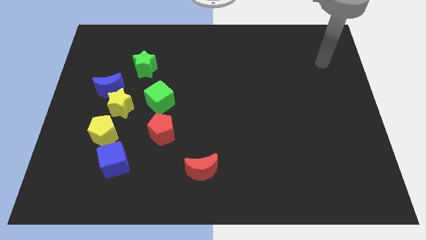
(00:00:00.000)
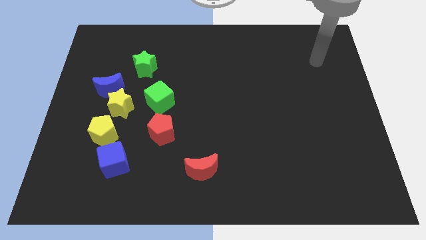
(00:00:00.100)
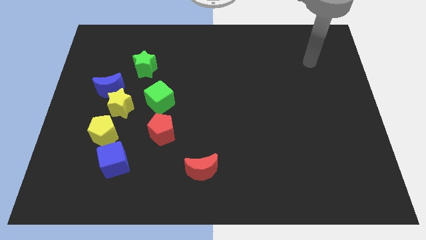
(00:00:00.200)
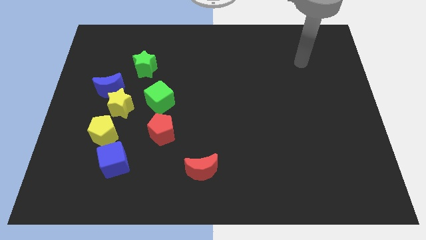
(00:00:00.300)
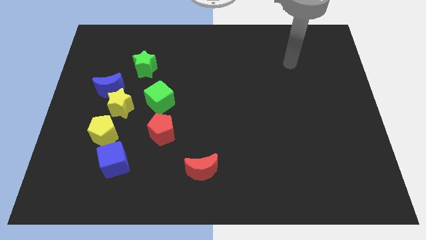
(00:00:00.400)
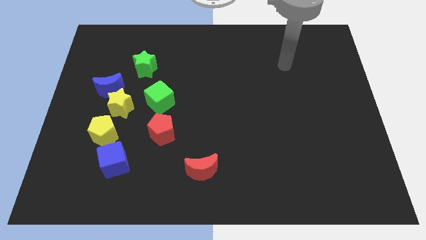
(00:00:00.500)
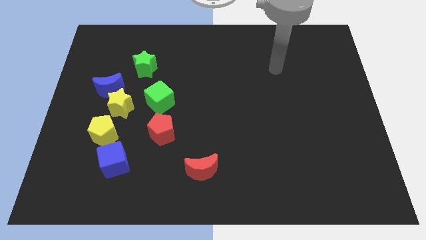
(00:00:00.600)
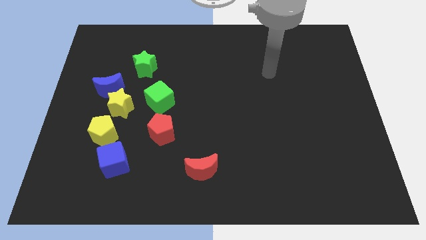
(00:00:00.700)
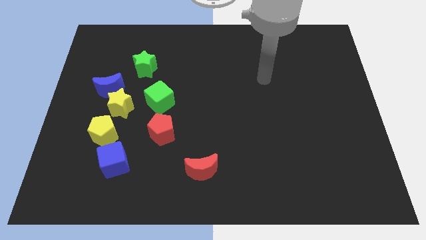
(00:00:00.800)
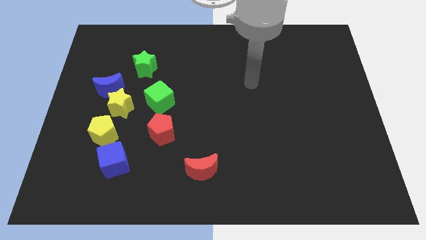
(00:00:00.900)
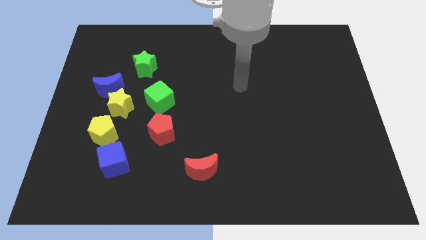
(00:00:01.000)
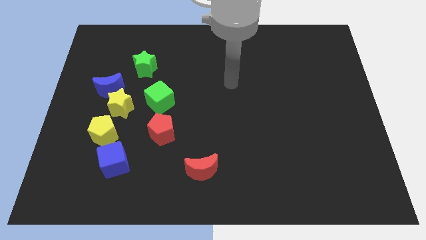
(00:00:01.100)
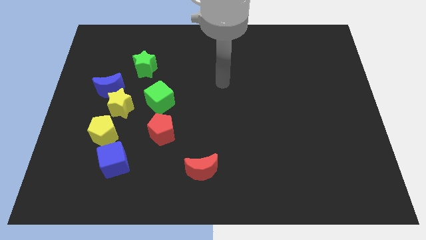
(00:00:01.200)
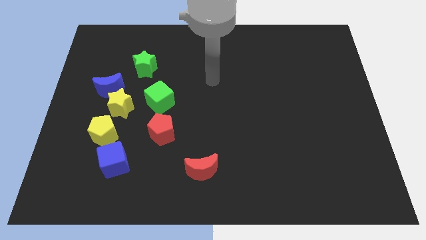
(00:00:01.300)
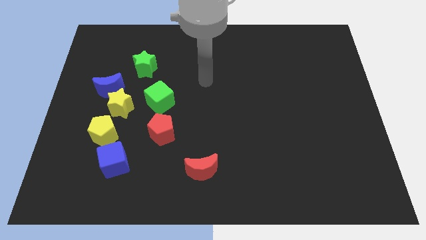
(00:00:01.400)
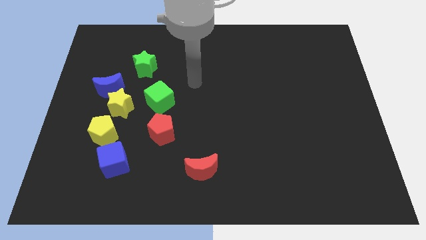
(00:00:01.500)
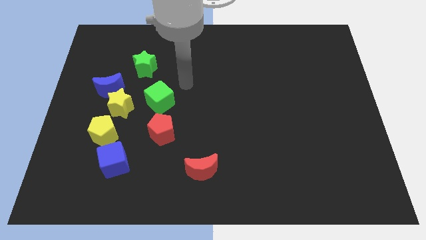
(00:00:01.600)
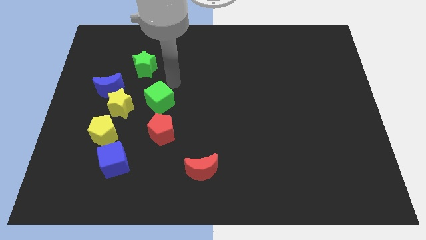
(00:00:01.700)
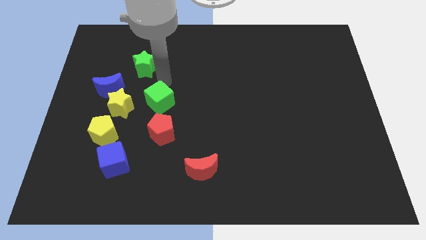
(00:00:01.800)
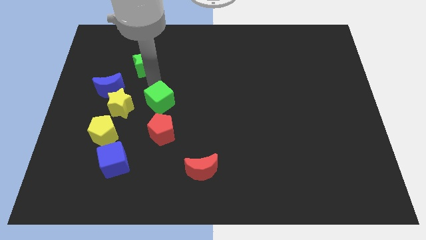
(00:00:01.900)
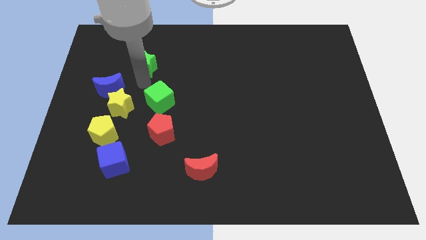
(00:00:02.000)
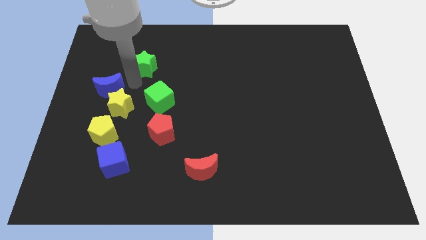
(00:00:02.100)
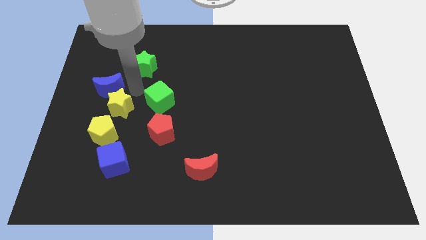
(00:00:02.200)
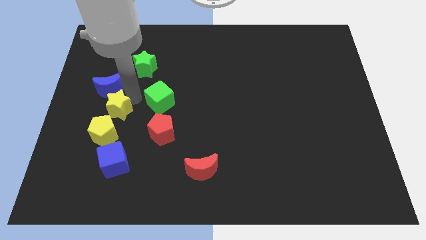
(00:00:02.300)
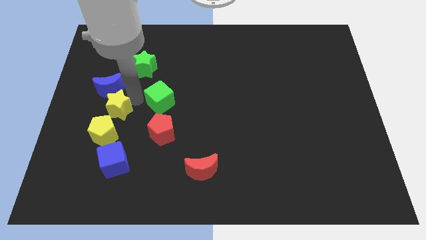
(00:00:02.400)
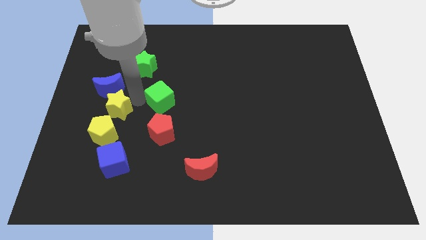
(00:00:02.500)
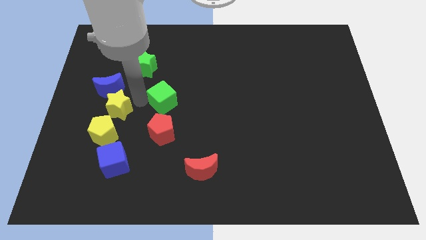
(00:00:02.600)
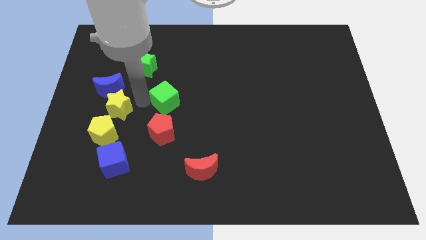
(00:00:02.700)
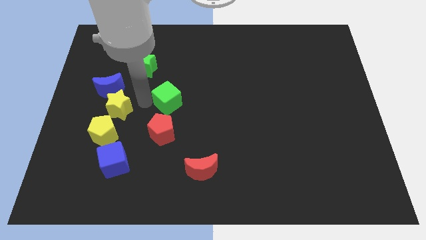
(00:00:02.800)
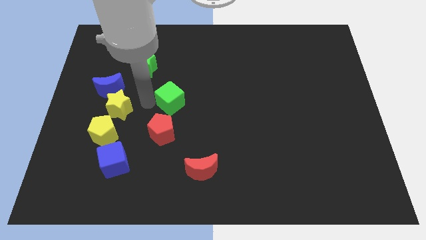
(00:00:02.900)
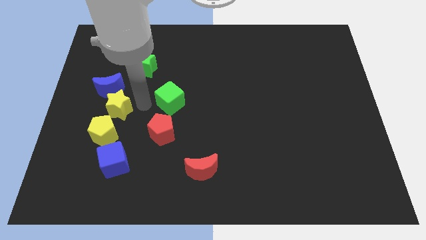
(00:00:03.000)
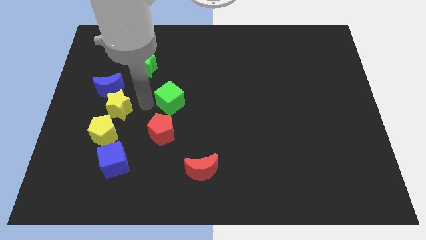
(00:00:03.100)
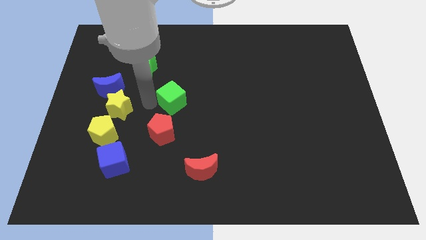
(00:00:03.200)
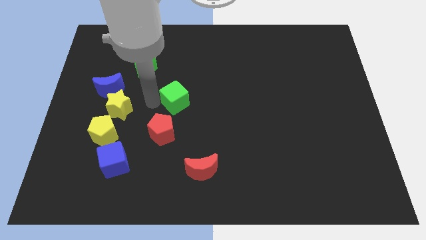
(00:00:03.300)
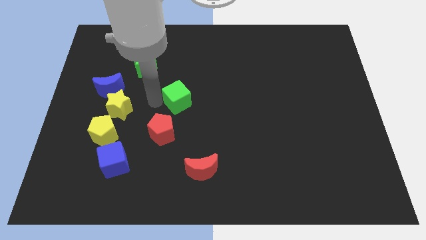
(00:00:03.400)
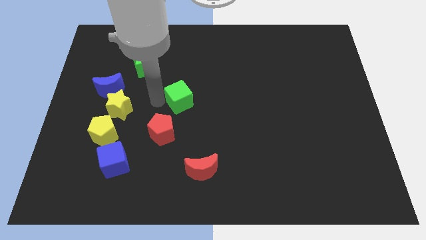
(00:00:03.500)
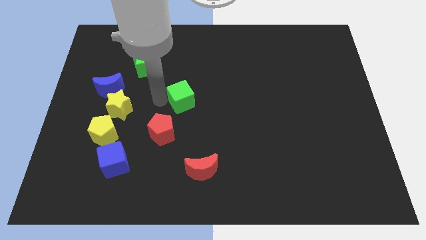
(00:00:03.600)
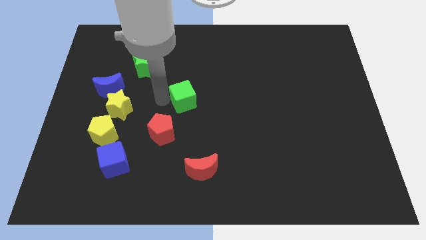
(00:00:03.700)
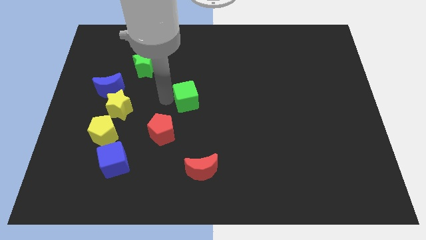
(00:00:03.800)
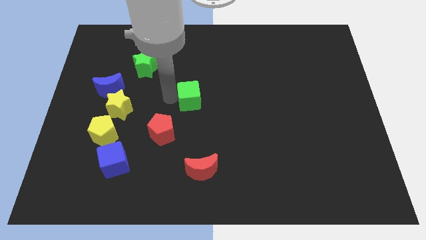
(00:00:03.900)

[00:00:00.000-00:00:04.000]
push the green cube to the right slightly

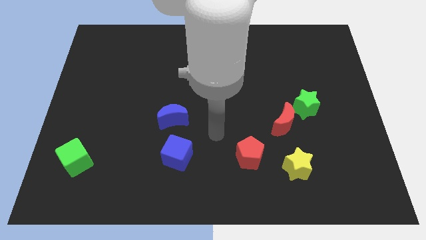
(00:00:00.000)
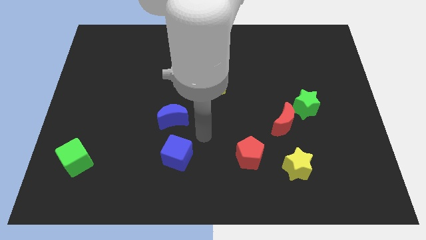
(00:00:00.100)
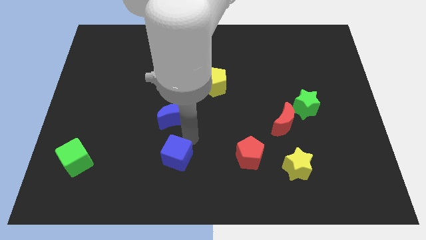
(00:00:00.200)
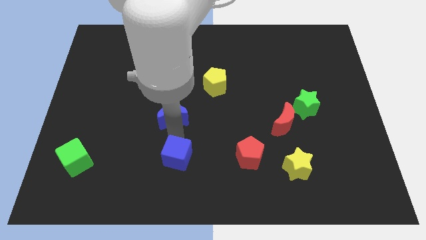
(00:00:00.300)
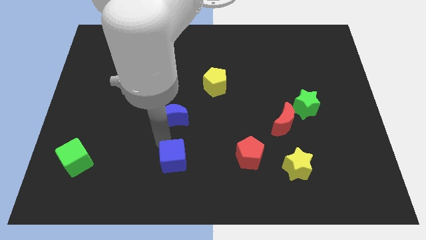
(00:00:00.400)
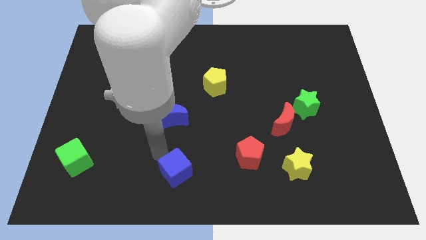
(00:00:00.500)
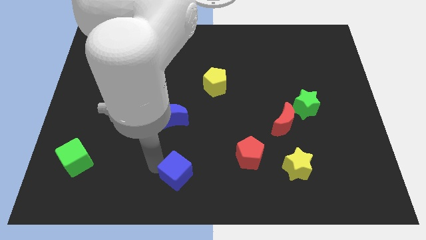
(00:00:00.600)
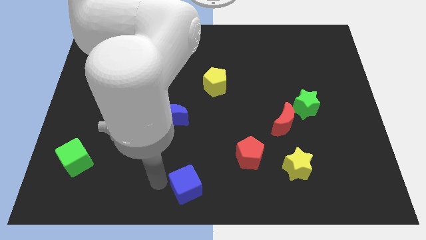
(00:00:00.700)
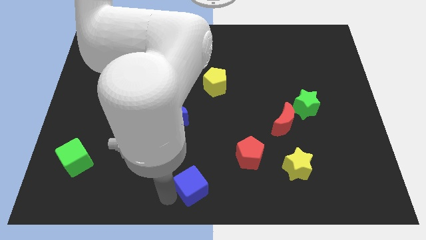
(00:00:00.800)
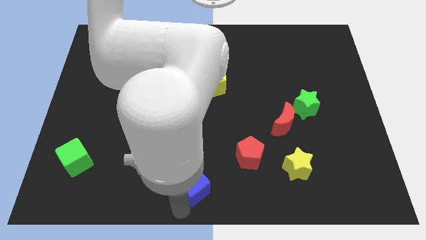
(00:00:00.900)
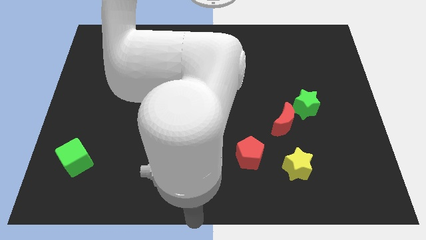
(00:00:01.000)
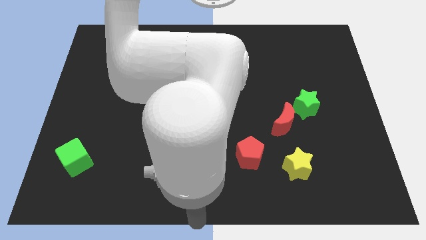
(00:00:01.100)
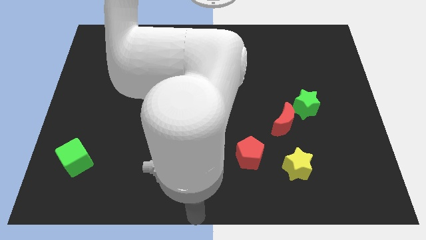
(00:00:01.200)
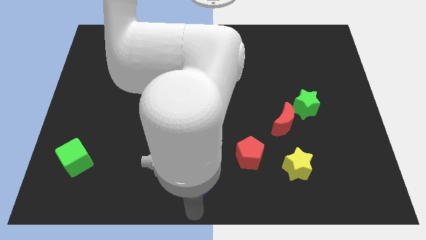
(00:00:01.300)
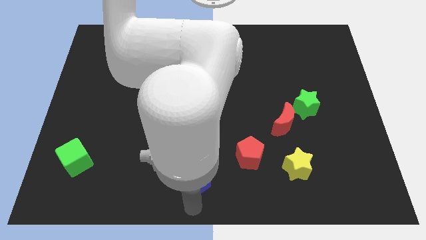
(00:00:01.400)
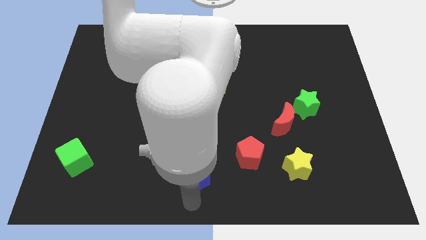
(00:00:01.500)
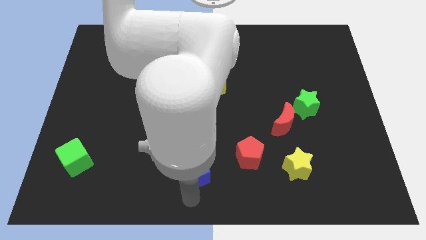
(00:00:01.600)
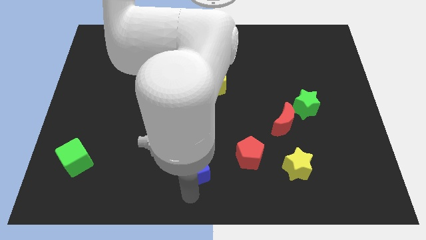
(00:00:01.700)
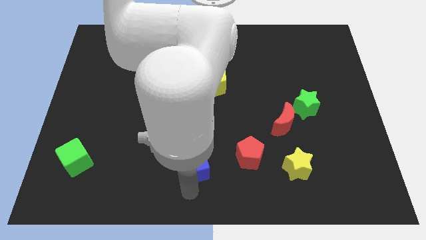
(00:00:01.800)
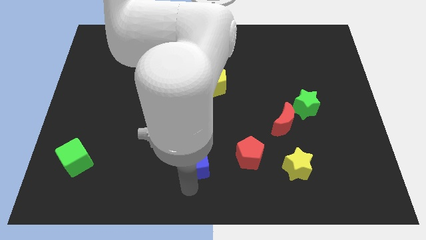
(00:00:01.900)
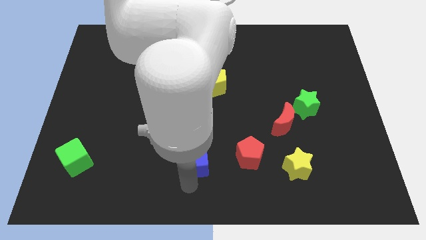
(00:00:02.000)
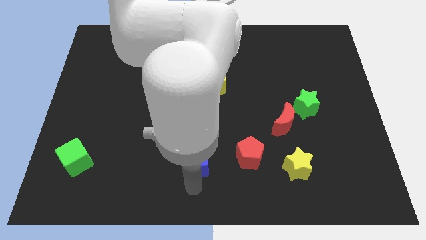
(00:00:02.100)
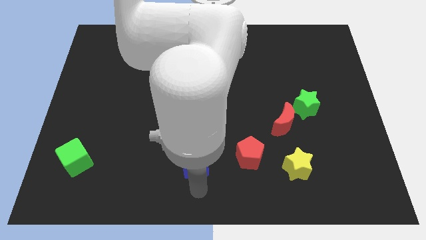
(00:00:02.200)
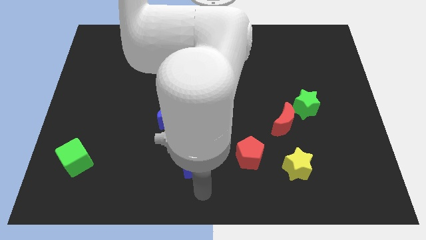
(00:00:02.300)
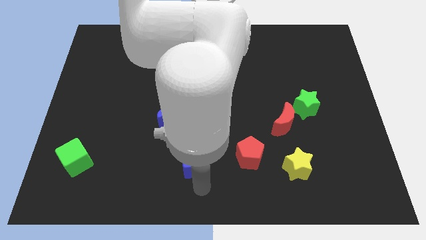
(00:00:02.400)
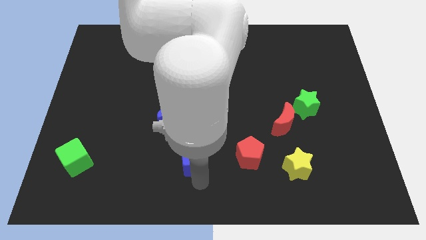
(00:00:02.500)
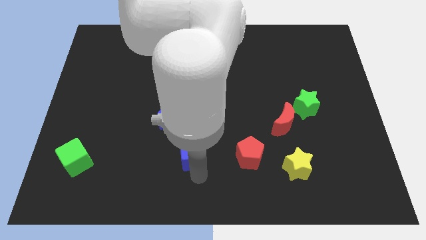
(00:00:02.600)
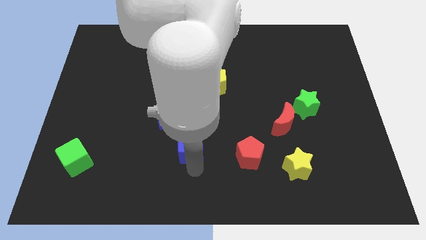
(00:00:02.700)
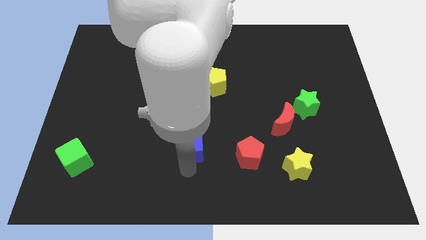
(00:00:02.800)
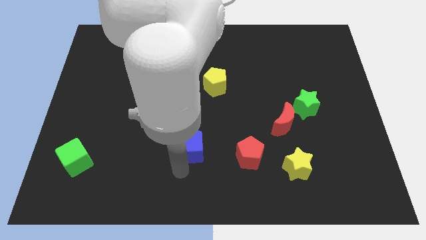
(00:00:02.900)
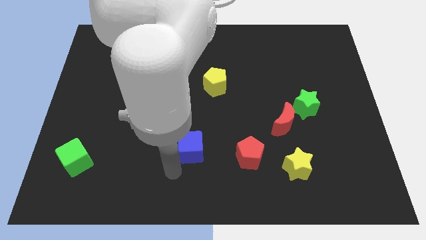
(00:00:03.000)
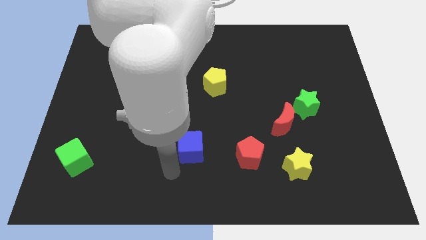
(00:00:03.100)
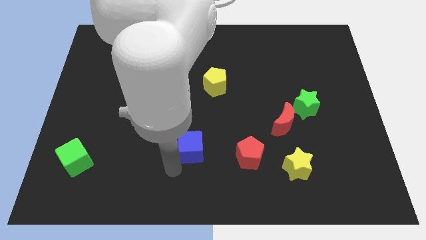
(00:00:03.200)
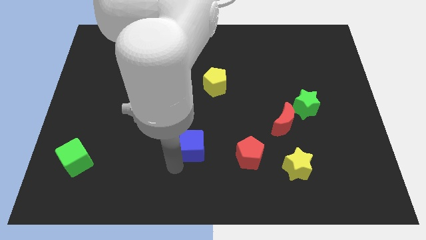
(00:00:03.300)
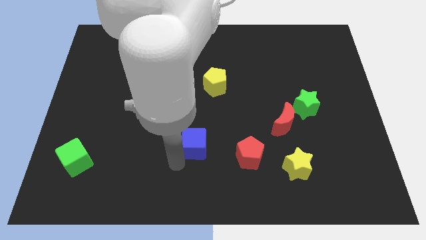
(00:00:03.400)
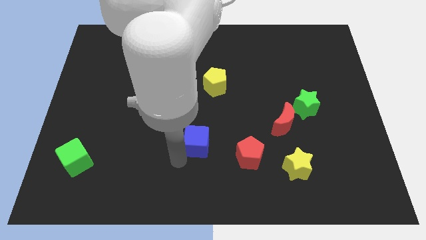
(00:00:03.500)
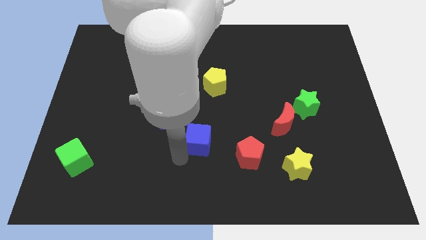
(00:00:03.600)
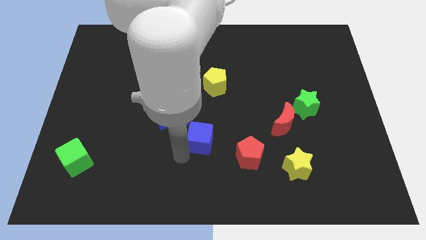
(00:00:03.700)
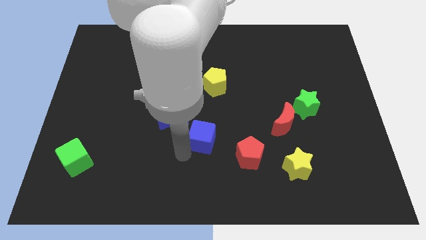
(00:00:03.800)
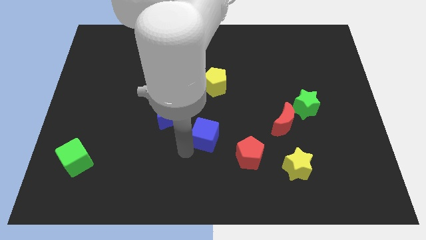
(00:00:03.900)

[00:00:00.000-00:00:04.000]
slide the blue cube a little bit up and then to the right
